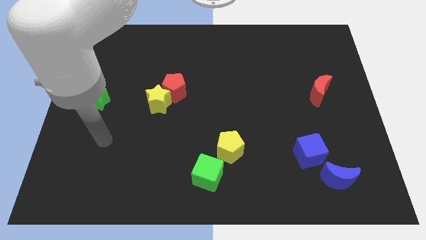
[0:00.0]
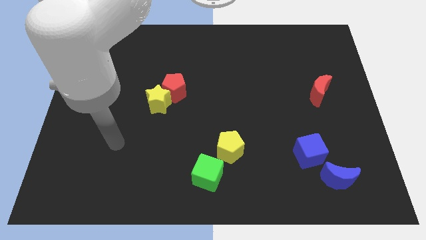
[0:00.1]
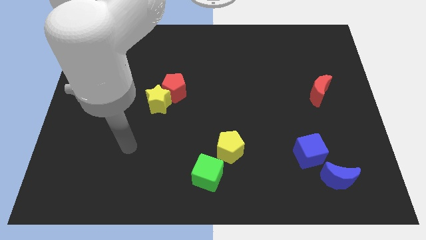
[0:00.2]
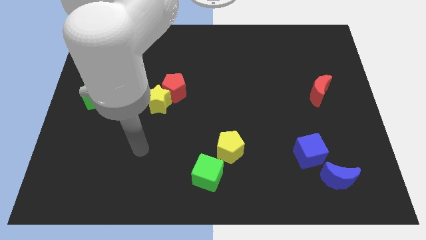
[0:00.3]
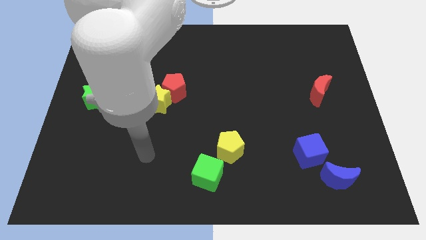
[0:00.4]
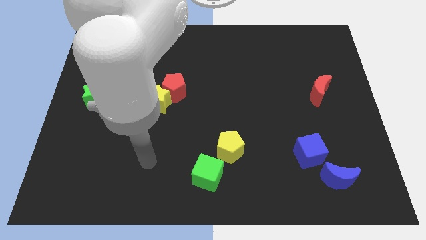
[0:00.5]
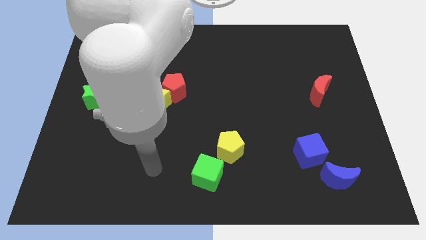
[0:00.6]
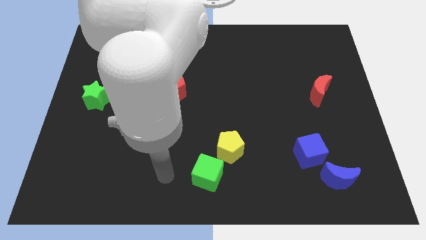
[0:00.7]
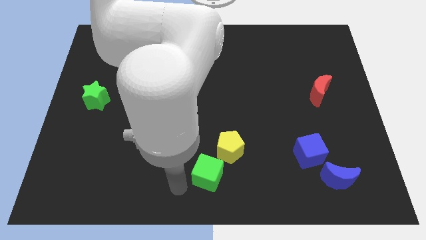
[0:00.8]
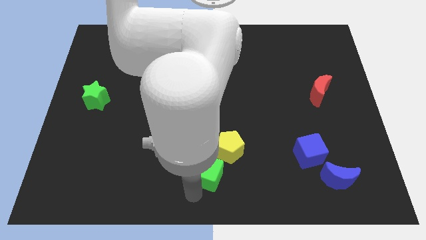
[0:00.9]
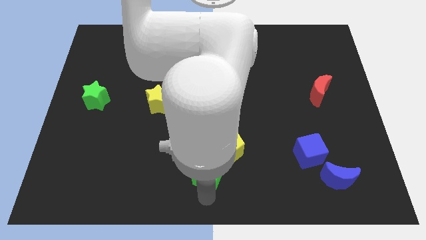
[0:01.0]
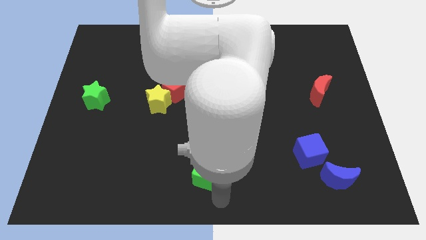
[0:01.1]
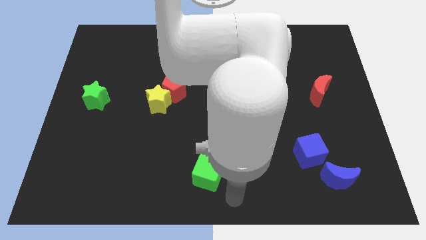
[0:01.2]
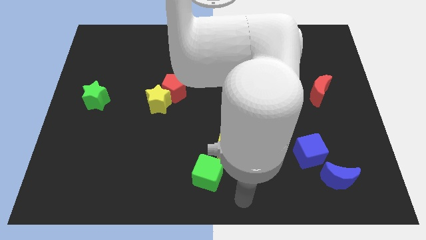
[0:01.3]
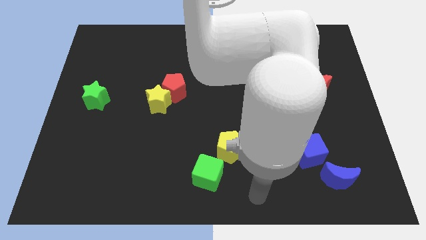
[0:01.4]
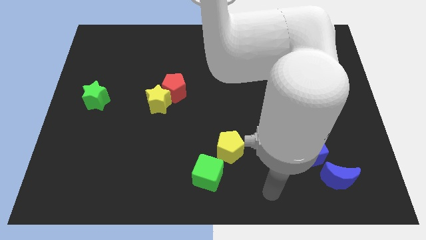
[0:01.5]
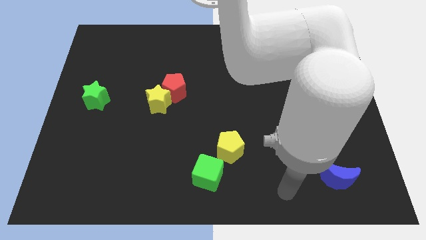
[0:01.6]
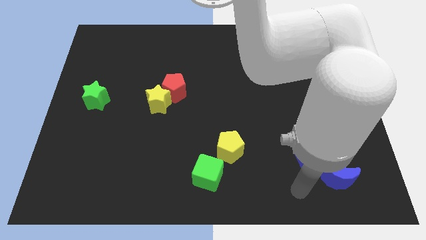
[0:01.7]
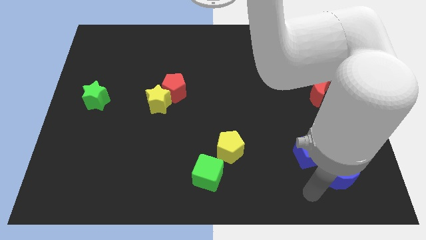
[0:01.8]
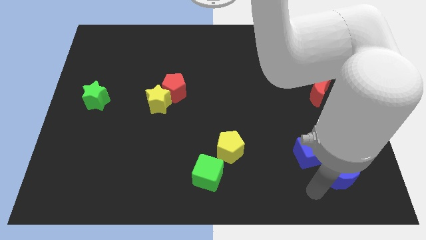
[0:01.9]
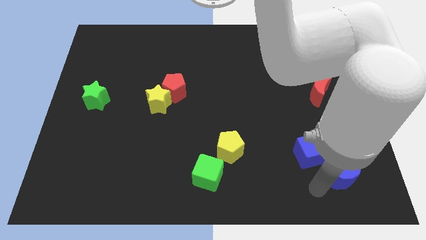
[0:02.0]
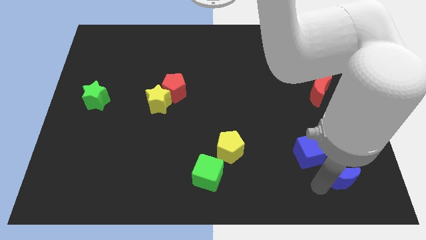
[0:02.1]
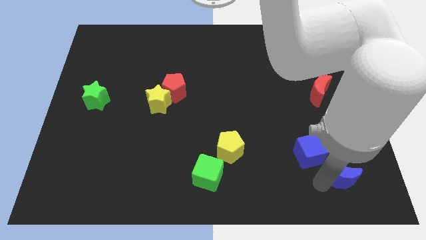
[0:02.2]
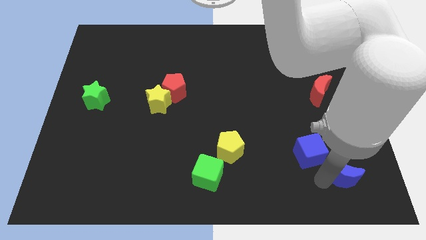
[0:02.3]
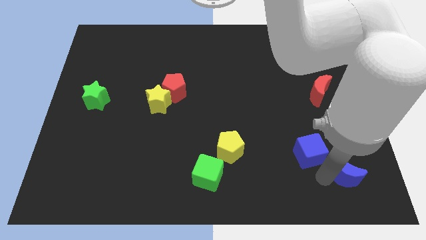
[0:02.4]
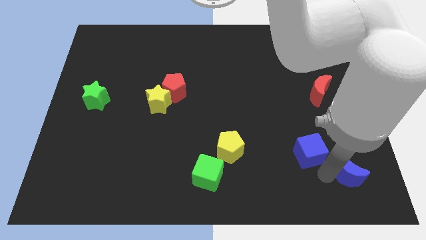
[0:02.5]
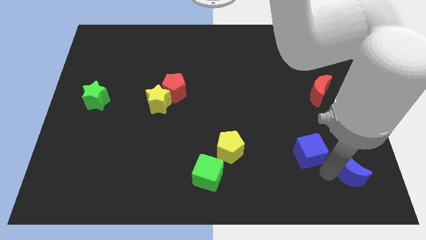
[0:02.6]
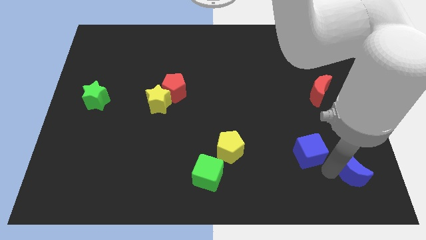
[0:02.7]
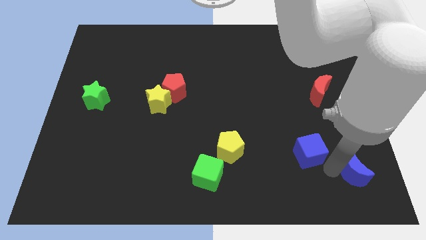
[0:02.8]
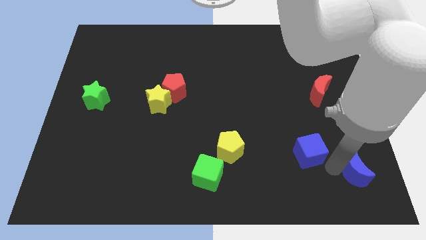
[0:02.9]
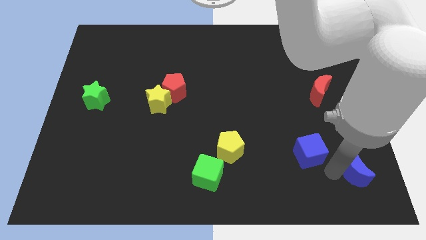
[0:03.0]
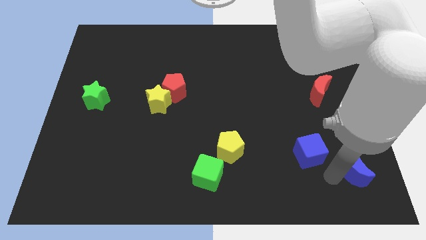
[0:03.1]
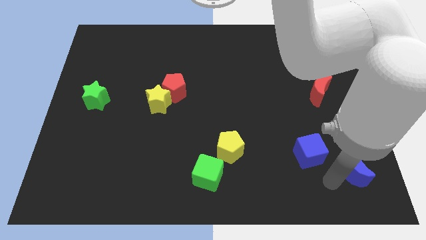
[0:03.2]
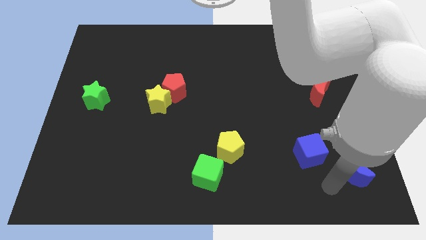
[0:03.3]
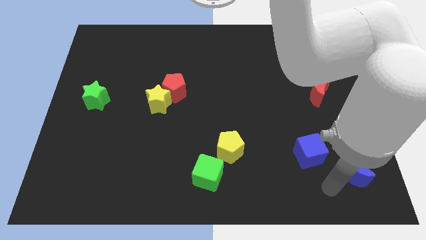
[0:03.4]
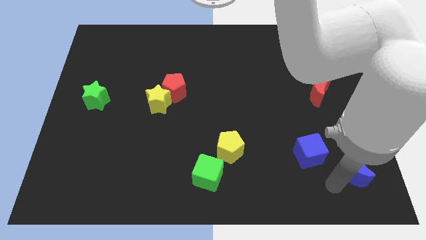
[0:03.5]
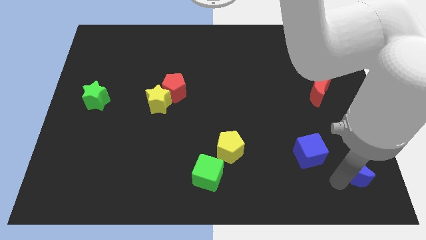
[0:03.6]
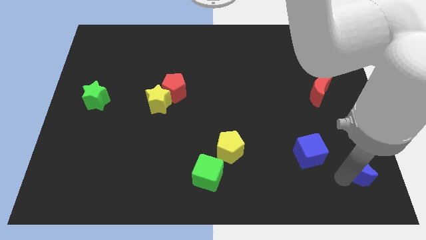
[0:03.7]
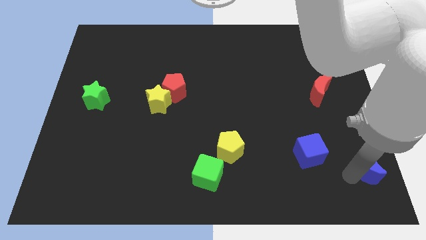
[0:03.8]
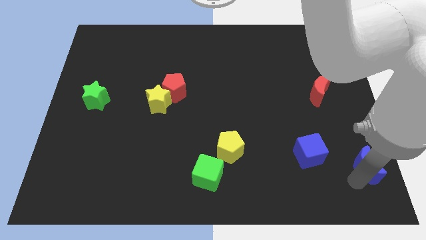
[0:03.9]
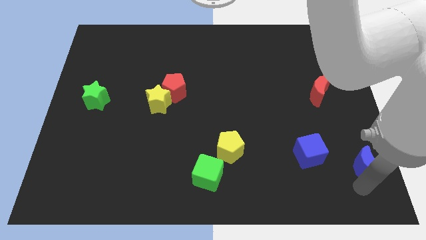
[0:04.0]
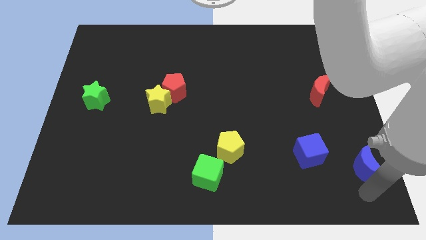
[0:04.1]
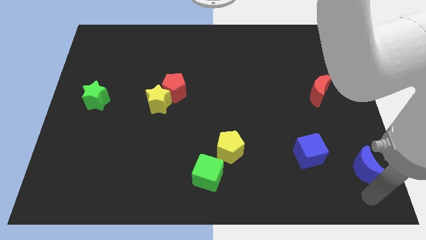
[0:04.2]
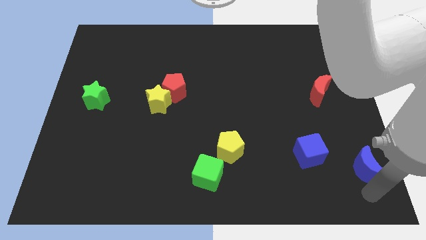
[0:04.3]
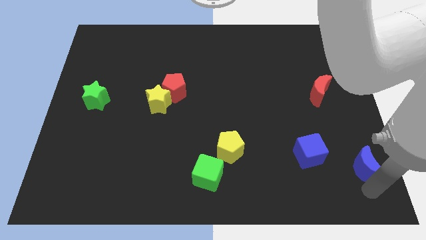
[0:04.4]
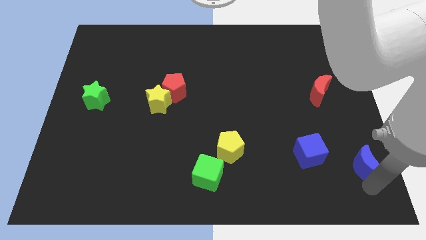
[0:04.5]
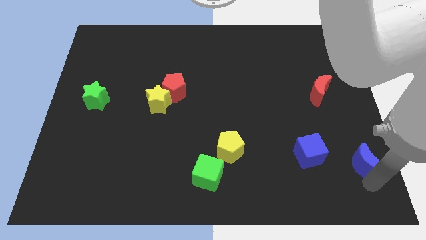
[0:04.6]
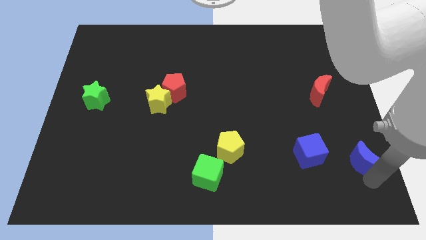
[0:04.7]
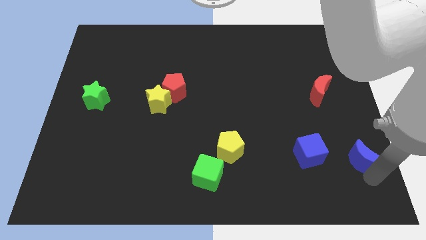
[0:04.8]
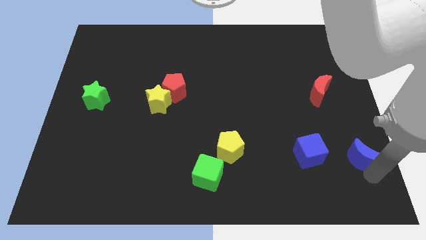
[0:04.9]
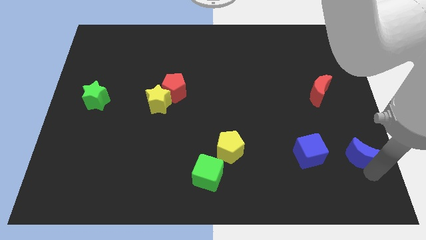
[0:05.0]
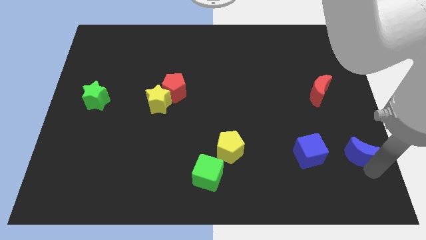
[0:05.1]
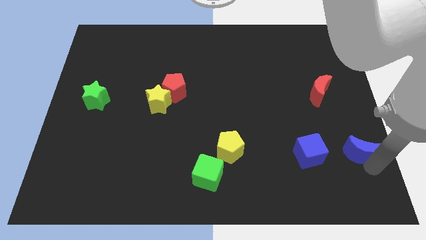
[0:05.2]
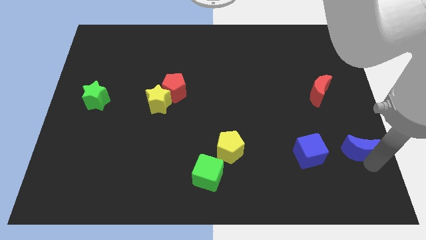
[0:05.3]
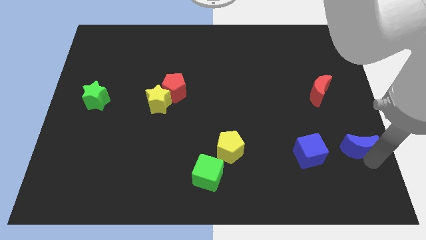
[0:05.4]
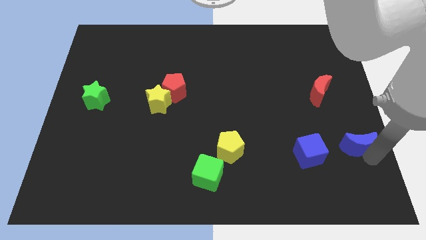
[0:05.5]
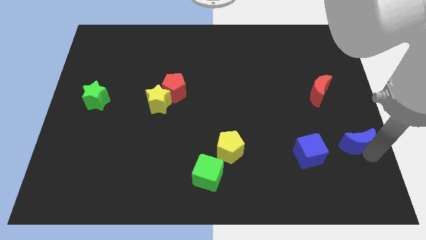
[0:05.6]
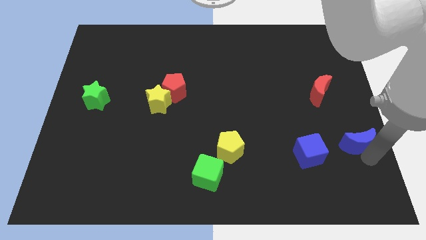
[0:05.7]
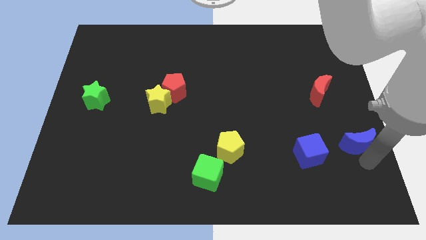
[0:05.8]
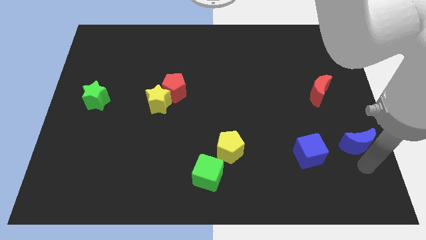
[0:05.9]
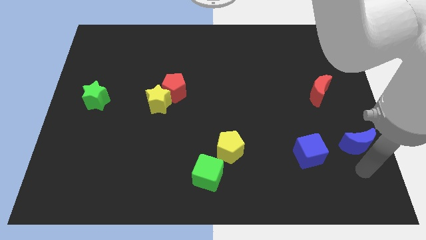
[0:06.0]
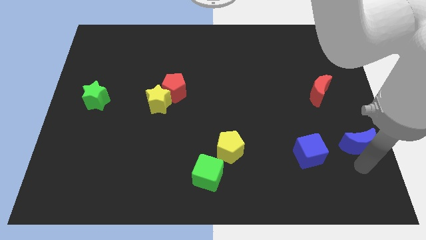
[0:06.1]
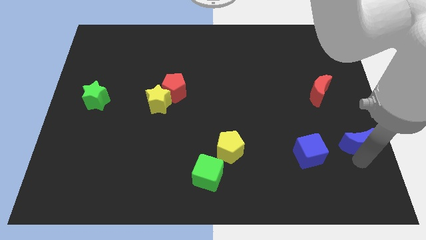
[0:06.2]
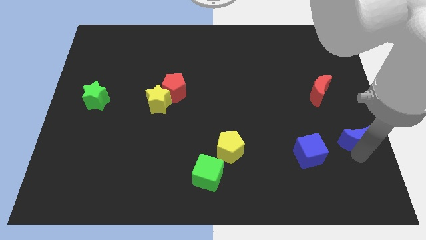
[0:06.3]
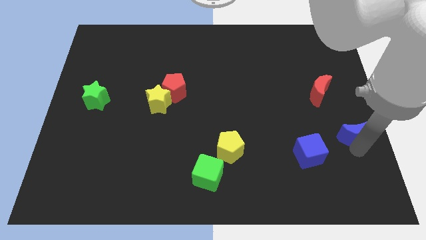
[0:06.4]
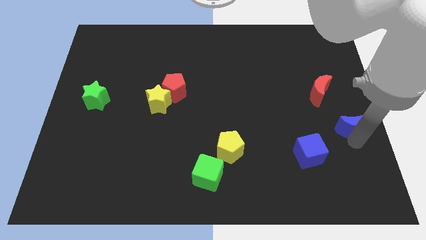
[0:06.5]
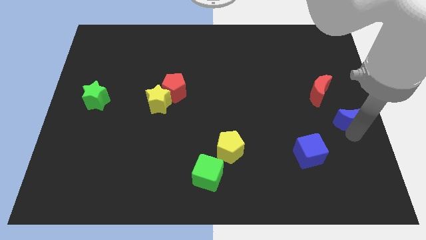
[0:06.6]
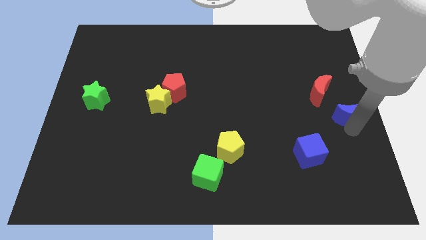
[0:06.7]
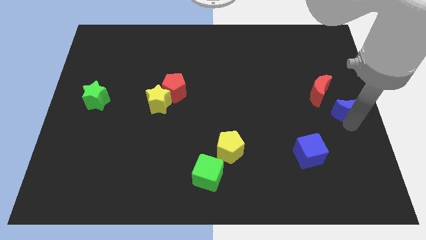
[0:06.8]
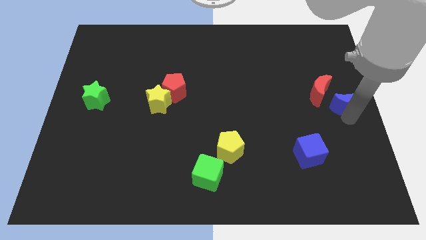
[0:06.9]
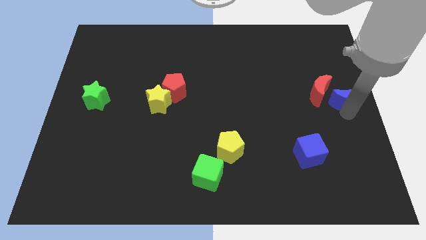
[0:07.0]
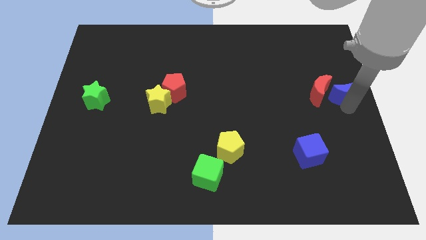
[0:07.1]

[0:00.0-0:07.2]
push the blue moon upwards
